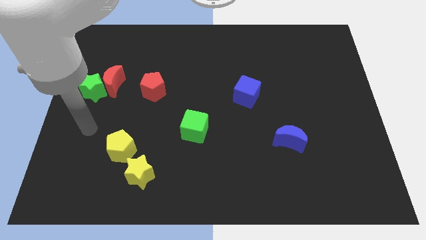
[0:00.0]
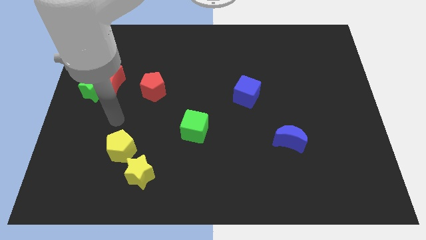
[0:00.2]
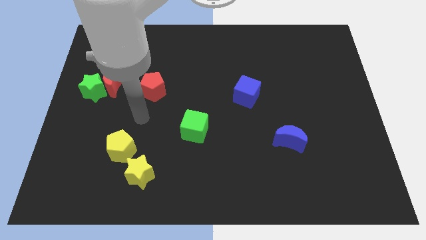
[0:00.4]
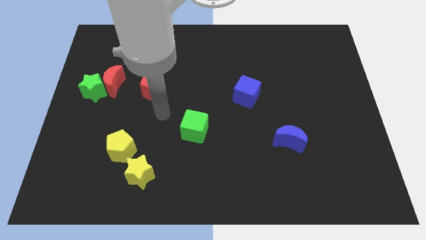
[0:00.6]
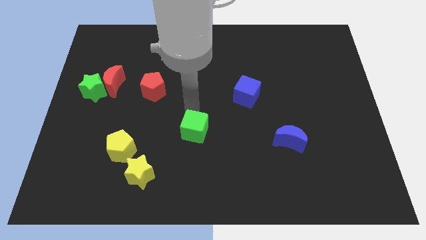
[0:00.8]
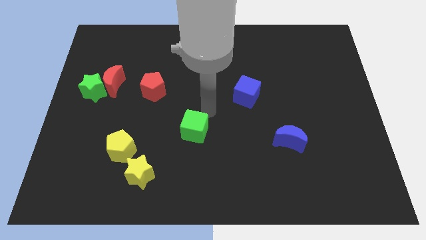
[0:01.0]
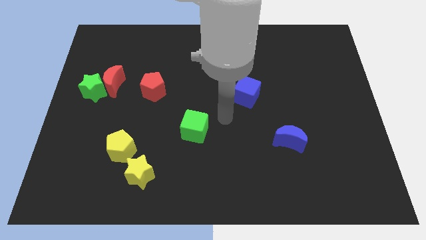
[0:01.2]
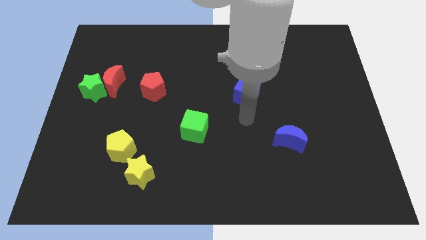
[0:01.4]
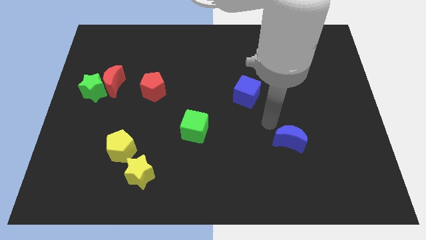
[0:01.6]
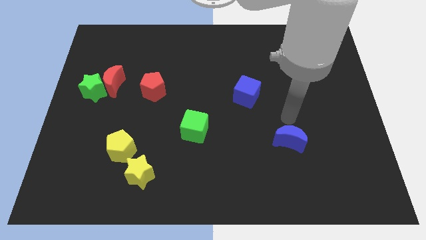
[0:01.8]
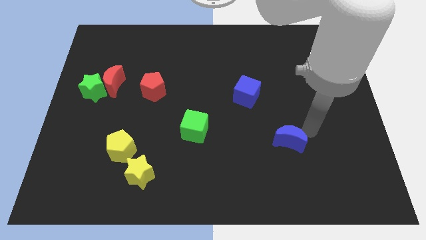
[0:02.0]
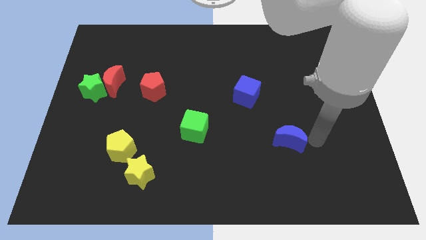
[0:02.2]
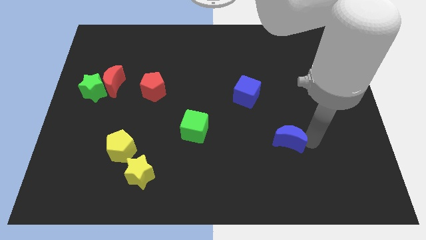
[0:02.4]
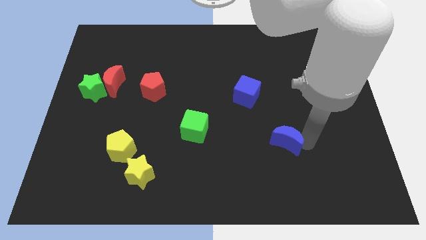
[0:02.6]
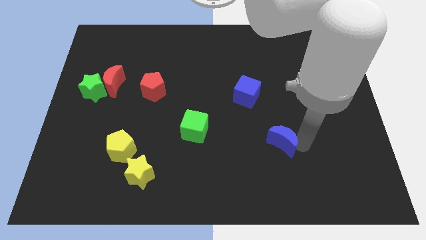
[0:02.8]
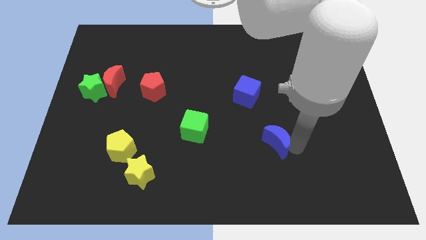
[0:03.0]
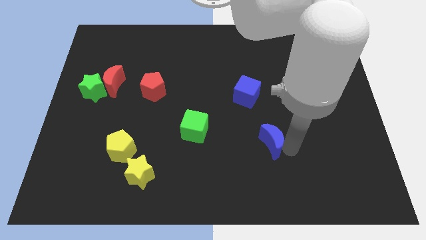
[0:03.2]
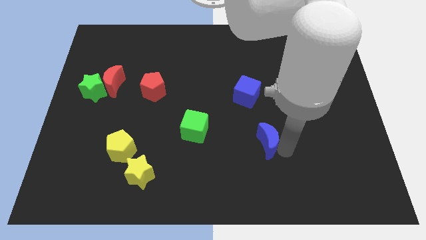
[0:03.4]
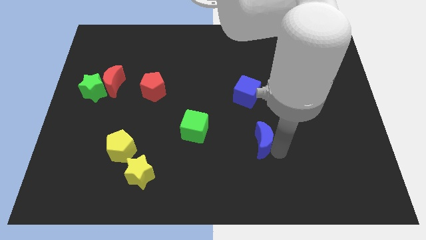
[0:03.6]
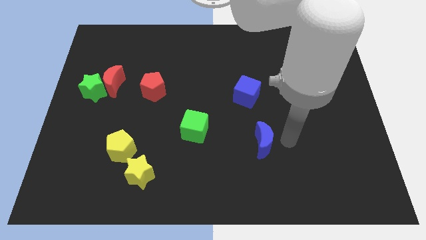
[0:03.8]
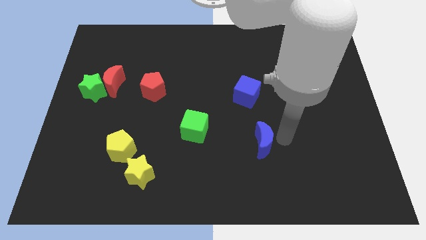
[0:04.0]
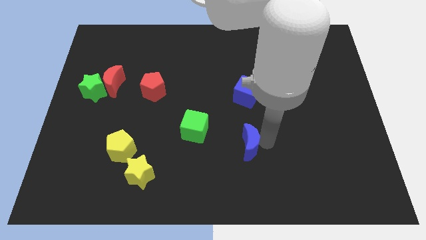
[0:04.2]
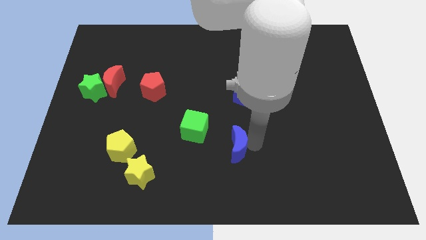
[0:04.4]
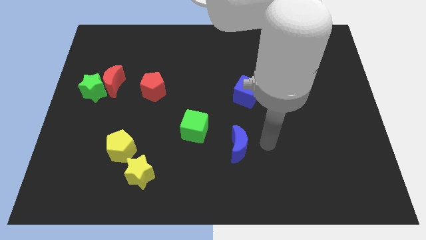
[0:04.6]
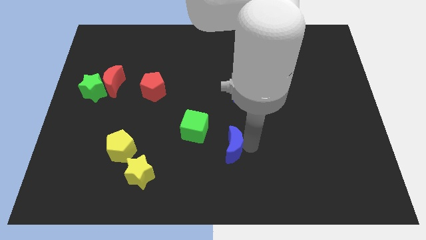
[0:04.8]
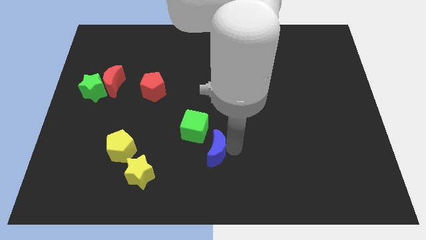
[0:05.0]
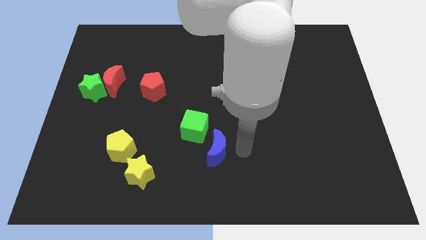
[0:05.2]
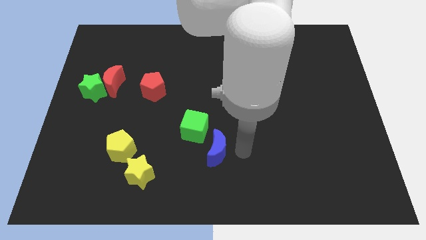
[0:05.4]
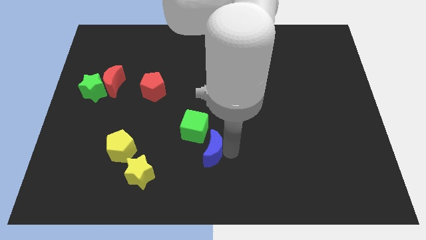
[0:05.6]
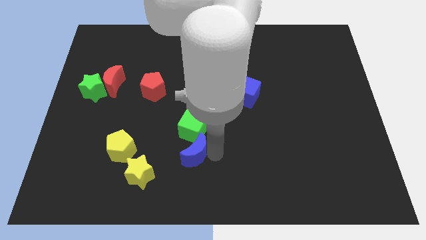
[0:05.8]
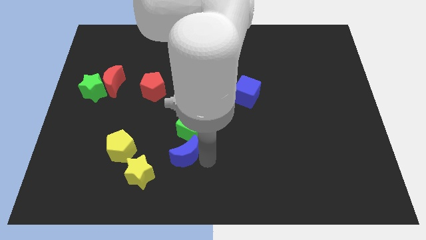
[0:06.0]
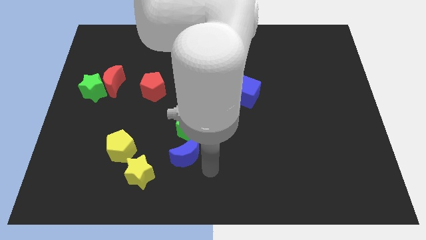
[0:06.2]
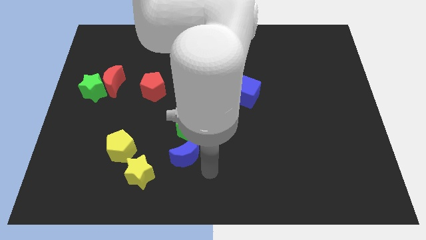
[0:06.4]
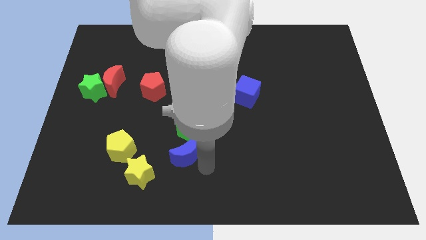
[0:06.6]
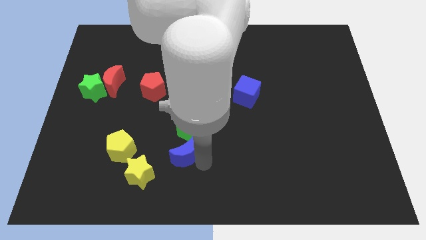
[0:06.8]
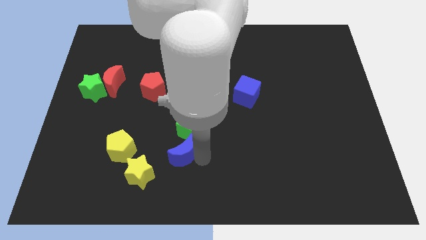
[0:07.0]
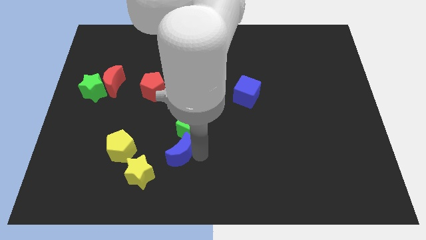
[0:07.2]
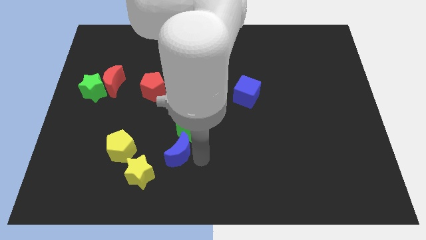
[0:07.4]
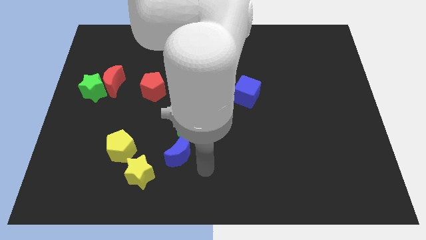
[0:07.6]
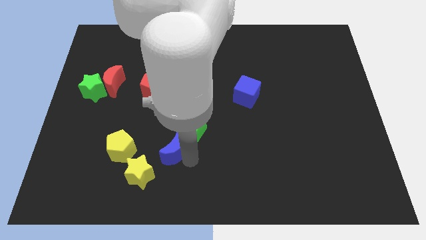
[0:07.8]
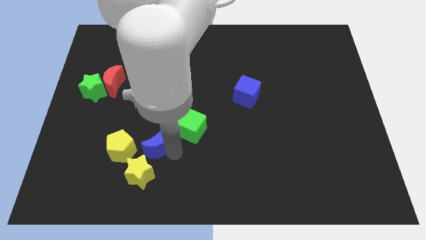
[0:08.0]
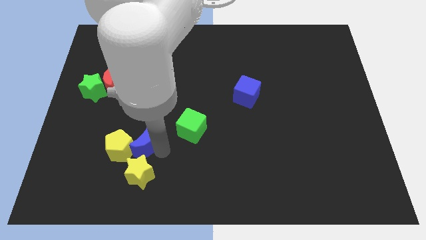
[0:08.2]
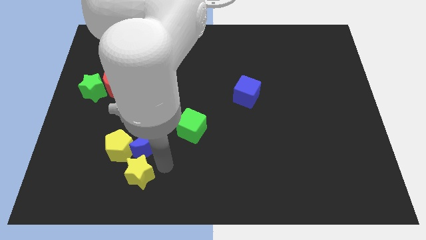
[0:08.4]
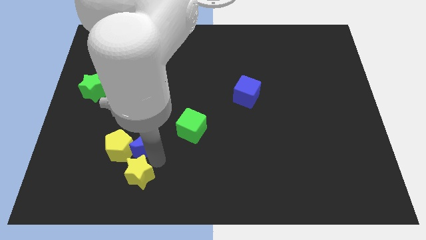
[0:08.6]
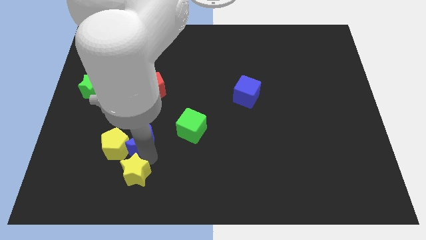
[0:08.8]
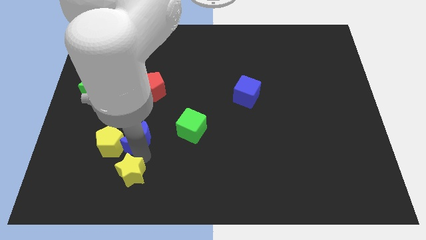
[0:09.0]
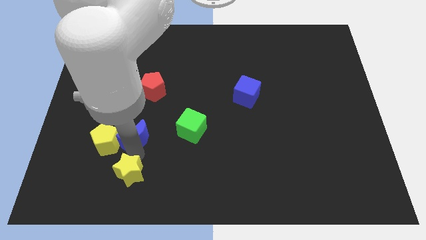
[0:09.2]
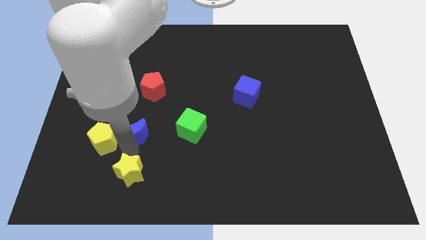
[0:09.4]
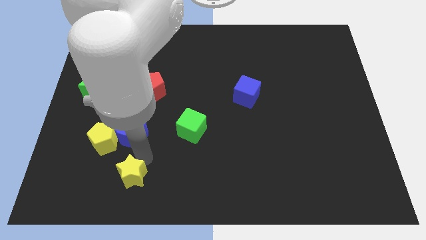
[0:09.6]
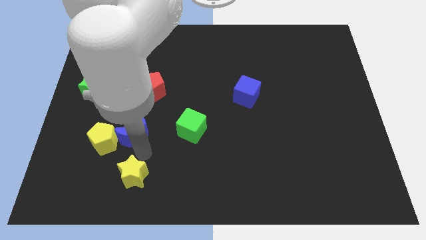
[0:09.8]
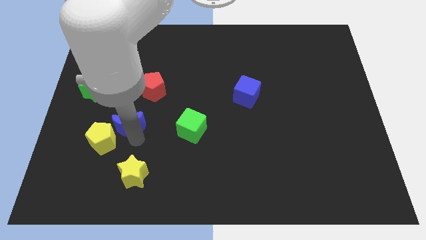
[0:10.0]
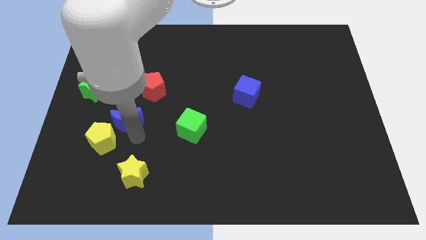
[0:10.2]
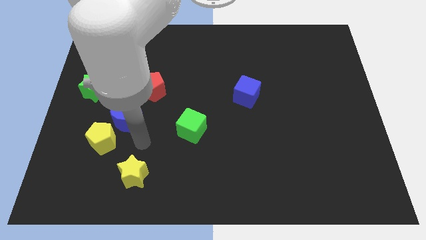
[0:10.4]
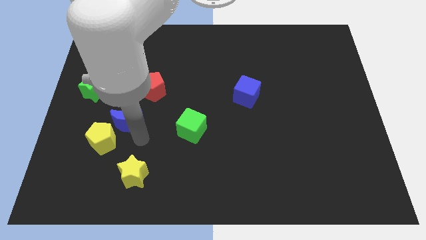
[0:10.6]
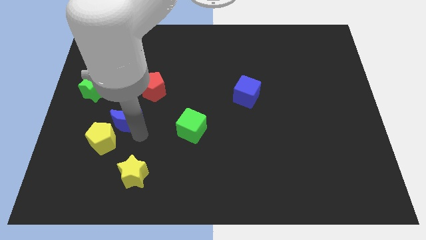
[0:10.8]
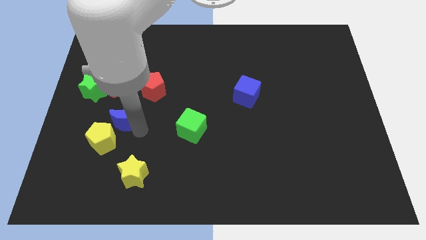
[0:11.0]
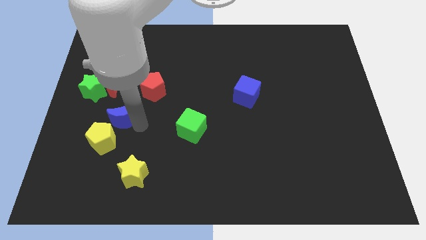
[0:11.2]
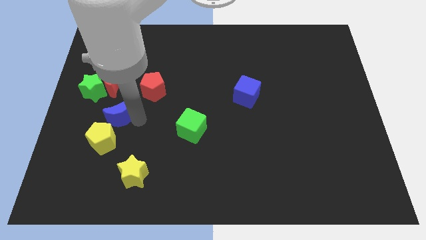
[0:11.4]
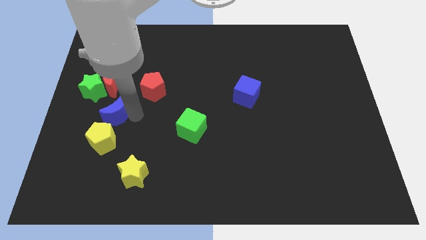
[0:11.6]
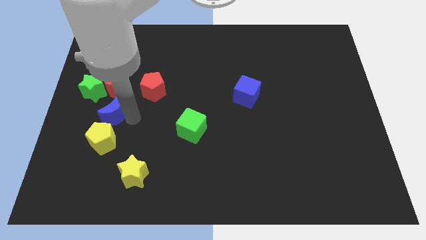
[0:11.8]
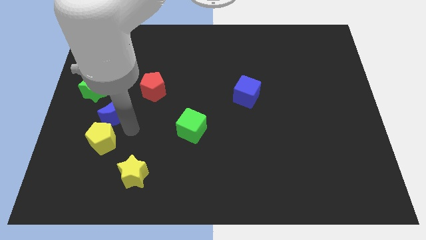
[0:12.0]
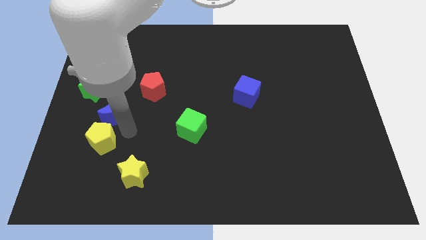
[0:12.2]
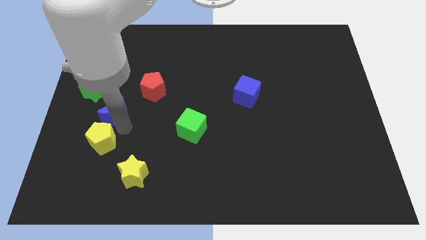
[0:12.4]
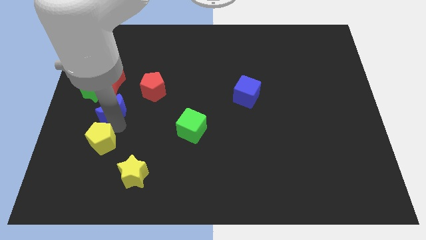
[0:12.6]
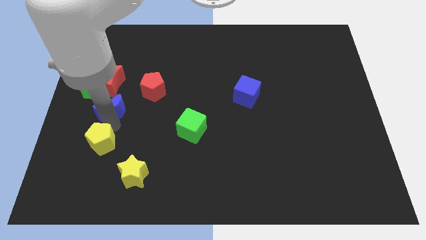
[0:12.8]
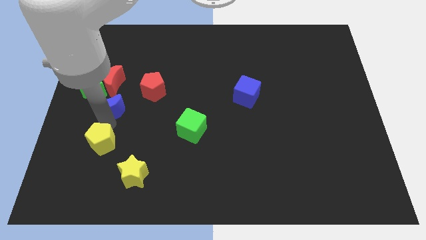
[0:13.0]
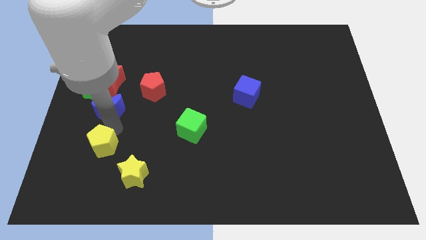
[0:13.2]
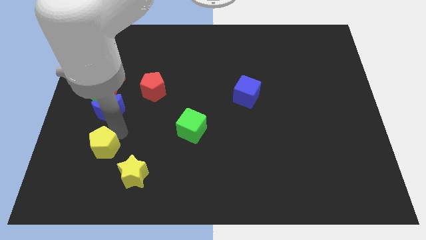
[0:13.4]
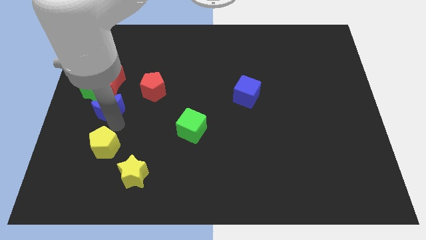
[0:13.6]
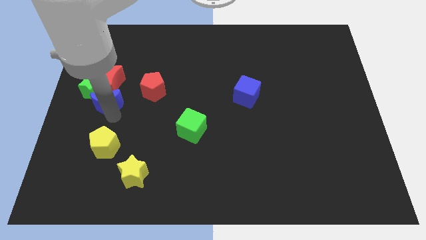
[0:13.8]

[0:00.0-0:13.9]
slide the blue moon close to the green star
